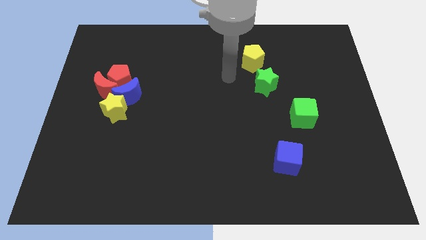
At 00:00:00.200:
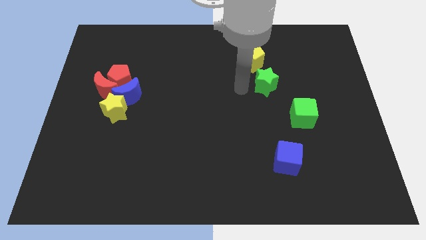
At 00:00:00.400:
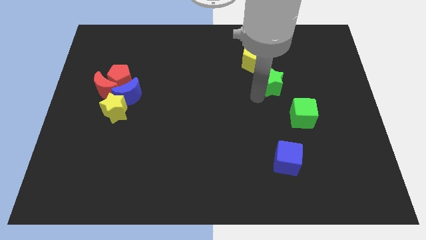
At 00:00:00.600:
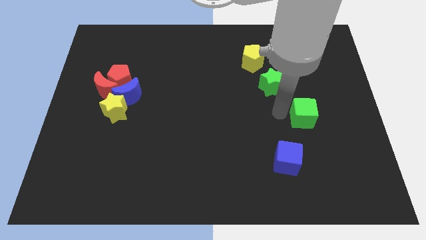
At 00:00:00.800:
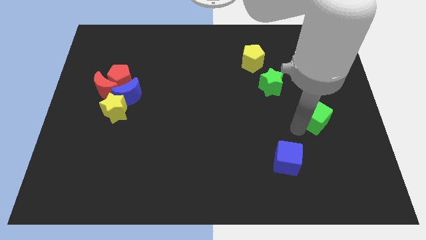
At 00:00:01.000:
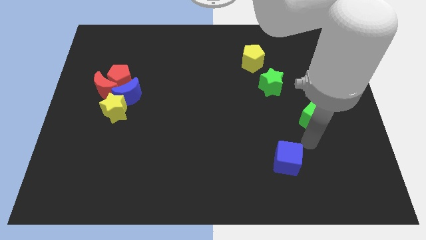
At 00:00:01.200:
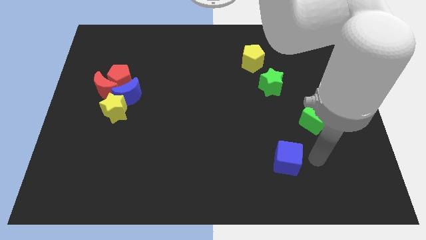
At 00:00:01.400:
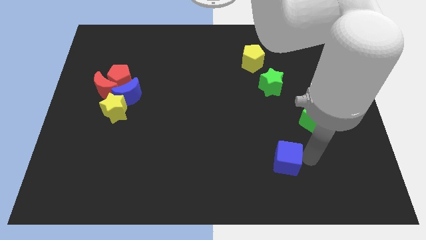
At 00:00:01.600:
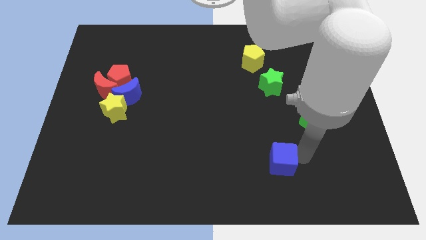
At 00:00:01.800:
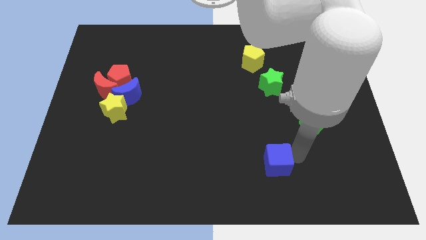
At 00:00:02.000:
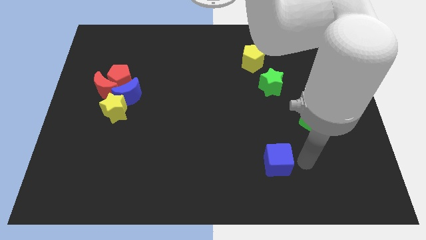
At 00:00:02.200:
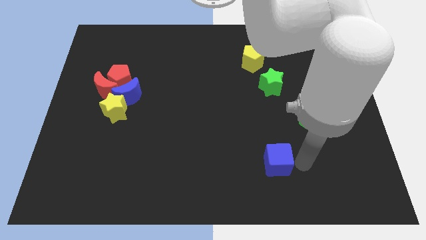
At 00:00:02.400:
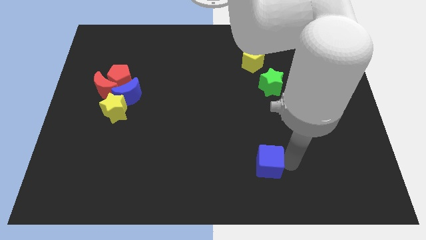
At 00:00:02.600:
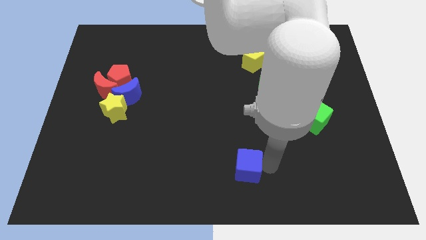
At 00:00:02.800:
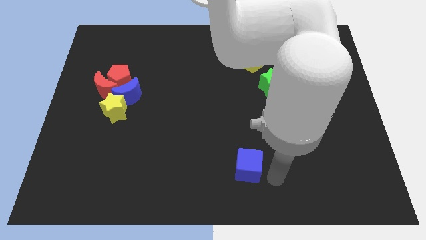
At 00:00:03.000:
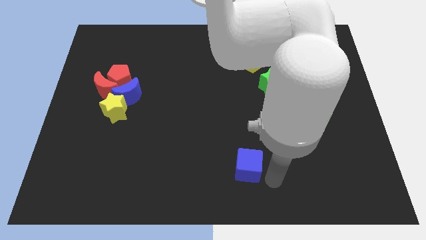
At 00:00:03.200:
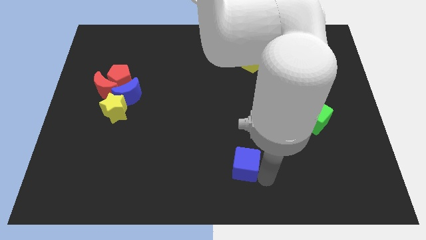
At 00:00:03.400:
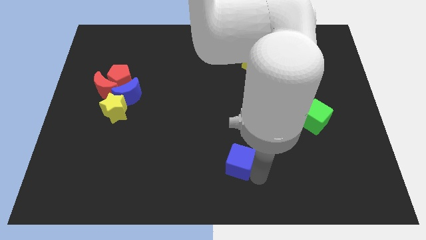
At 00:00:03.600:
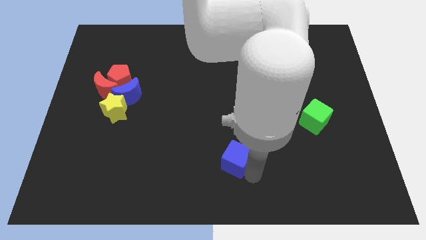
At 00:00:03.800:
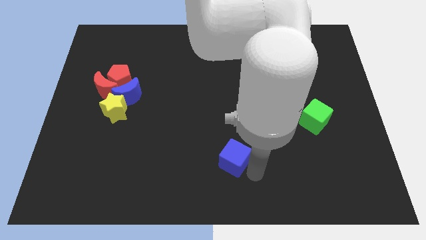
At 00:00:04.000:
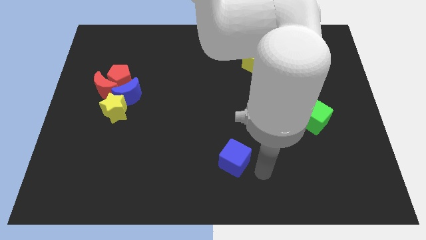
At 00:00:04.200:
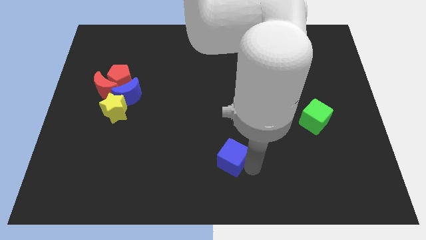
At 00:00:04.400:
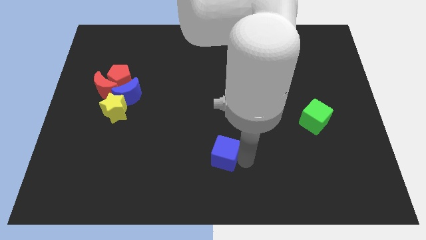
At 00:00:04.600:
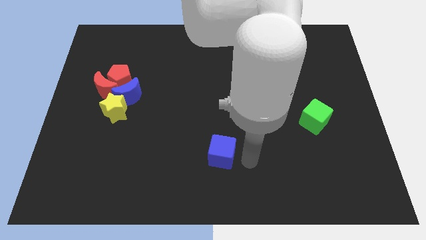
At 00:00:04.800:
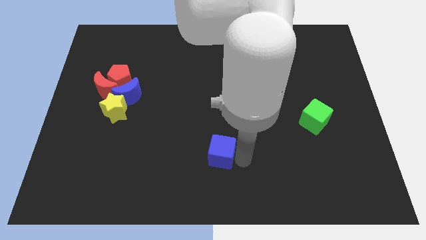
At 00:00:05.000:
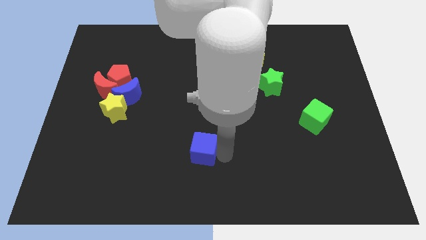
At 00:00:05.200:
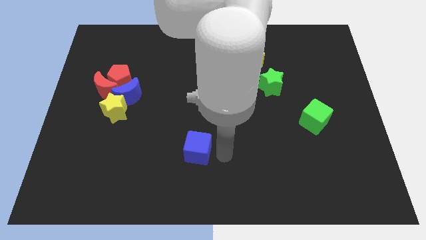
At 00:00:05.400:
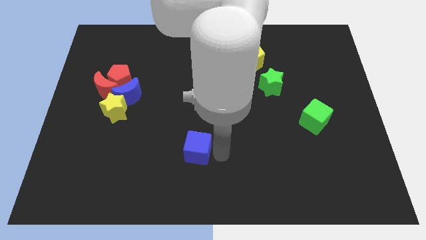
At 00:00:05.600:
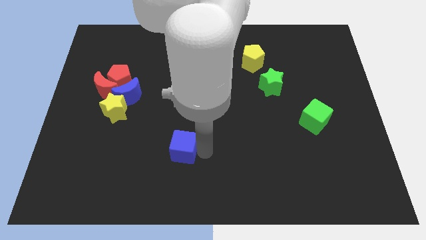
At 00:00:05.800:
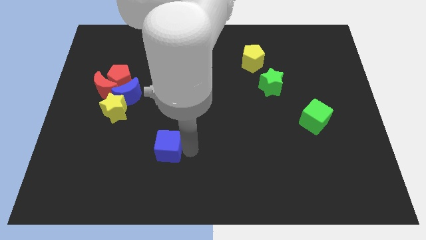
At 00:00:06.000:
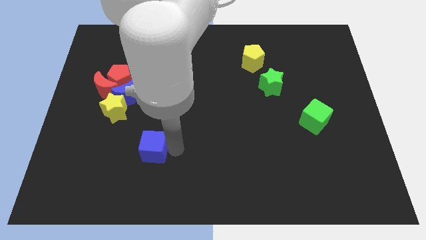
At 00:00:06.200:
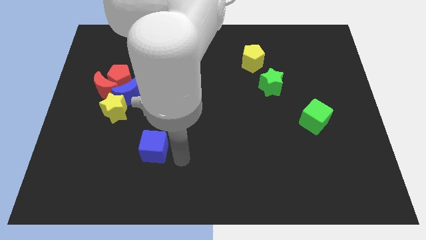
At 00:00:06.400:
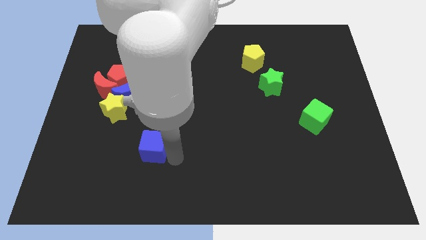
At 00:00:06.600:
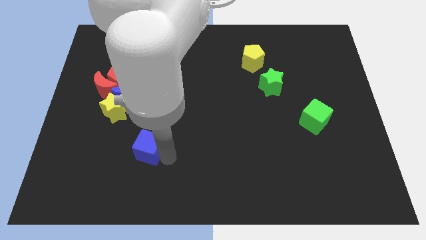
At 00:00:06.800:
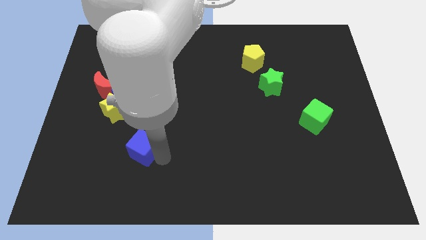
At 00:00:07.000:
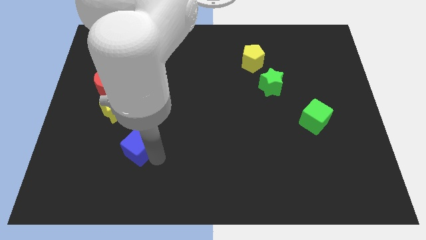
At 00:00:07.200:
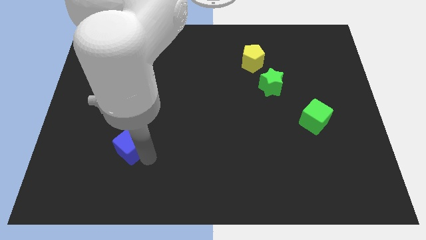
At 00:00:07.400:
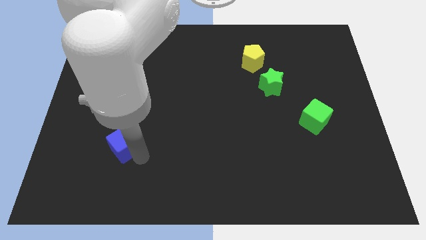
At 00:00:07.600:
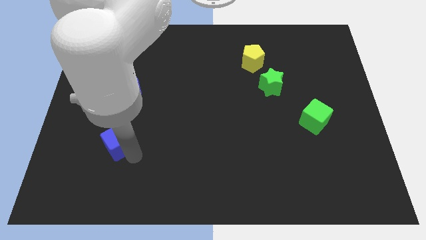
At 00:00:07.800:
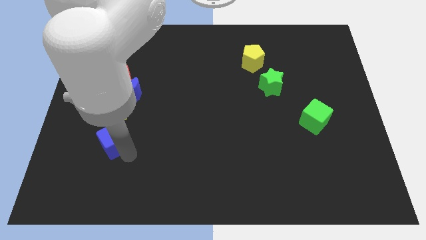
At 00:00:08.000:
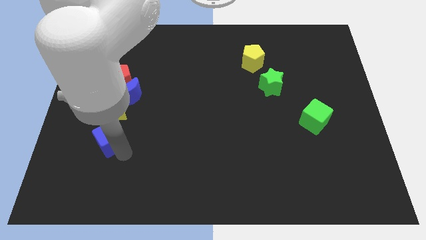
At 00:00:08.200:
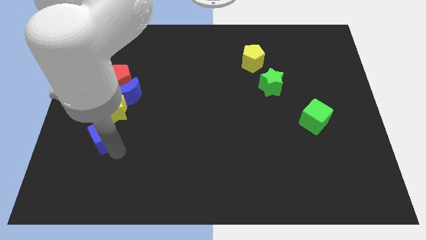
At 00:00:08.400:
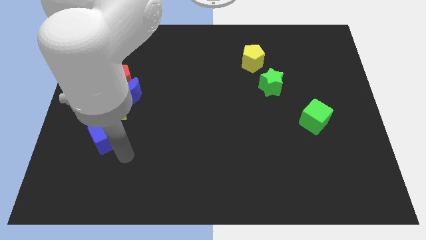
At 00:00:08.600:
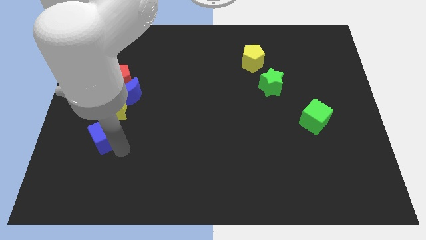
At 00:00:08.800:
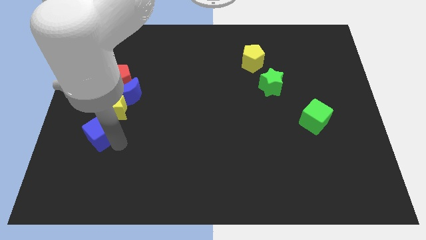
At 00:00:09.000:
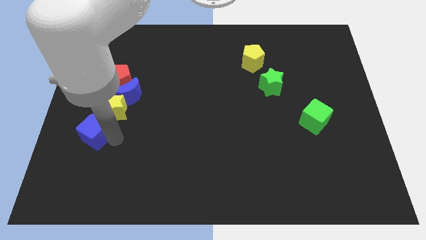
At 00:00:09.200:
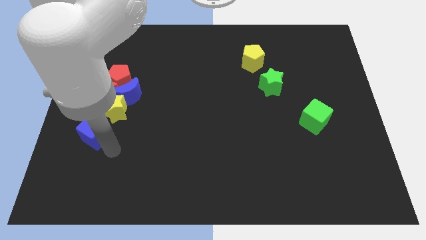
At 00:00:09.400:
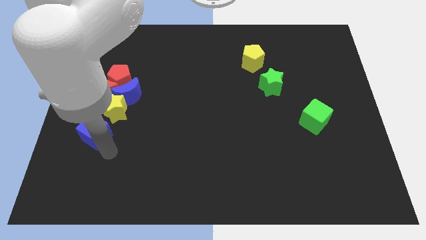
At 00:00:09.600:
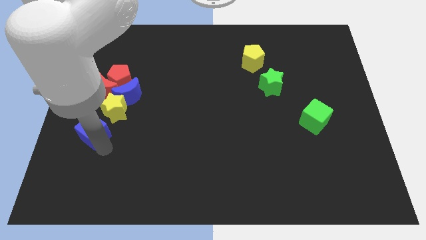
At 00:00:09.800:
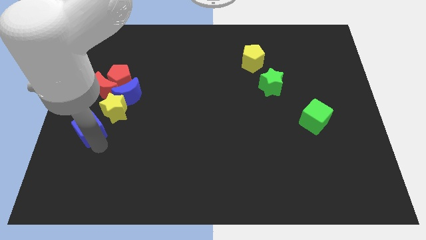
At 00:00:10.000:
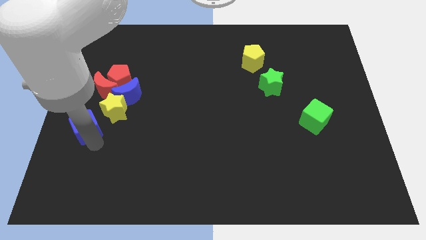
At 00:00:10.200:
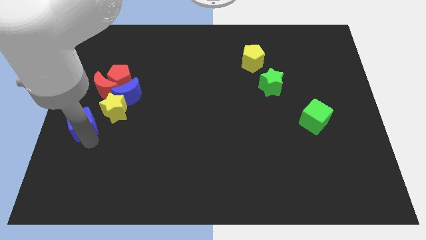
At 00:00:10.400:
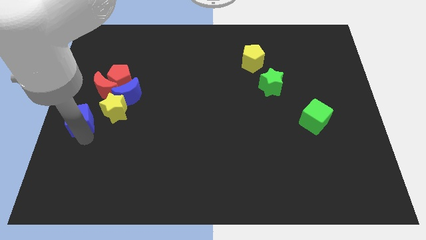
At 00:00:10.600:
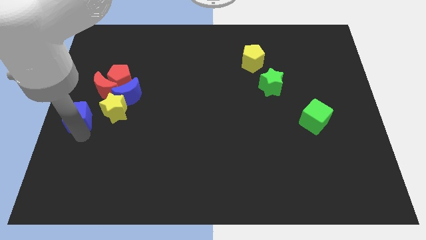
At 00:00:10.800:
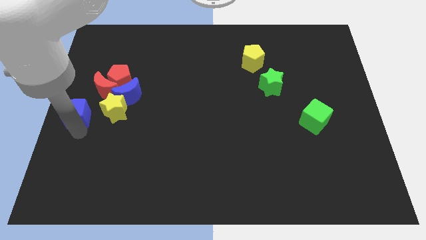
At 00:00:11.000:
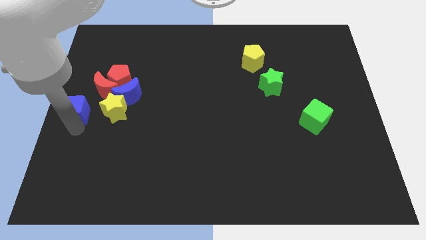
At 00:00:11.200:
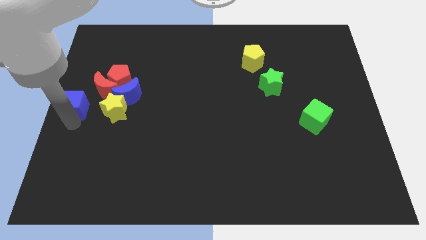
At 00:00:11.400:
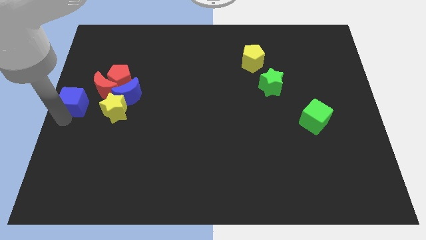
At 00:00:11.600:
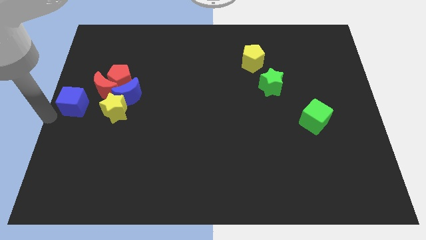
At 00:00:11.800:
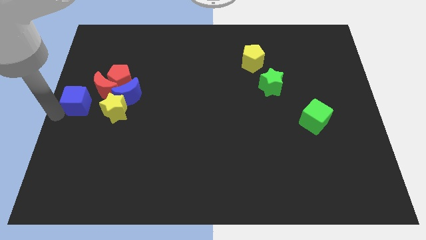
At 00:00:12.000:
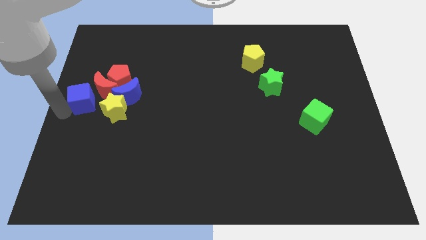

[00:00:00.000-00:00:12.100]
slide the blue cube next to the red moon

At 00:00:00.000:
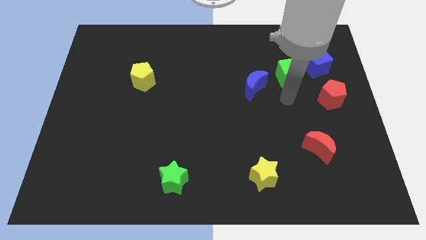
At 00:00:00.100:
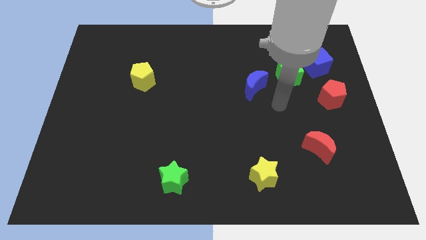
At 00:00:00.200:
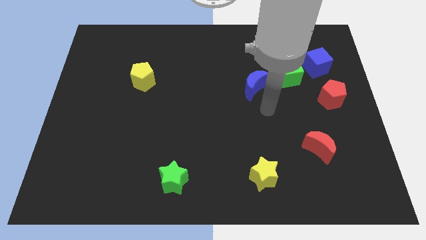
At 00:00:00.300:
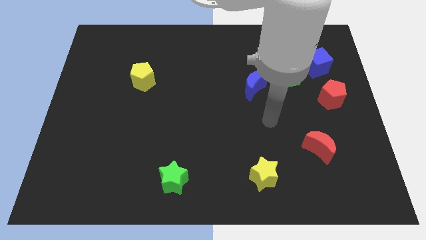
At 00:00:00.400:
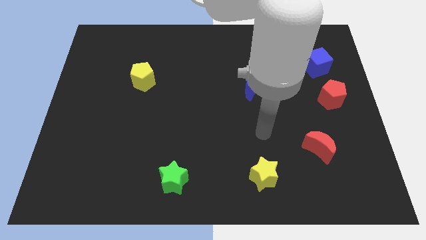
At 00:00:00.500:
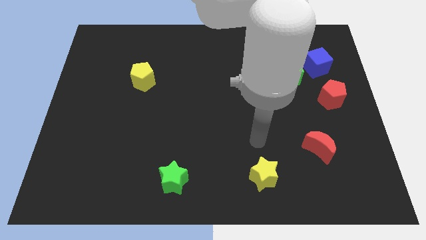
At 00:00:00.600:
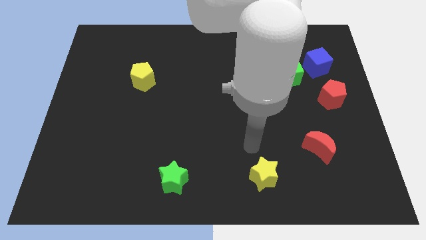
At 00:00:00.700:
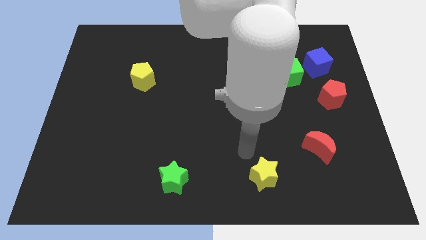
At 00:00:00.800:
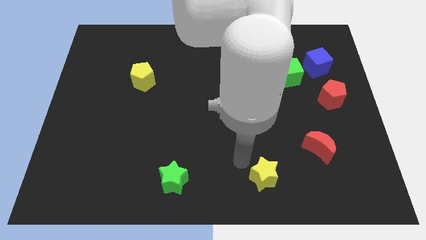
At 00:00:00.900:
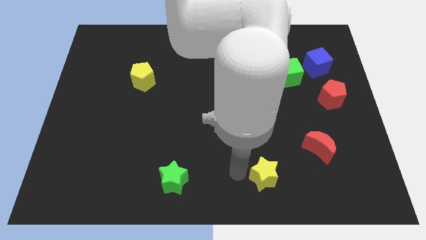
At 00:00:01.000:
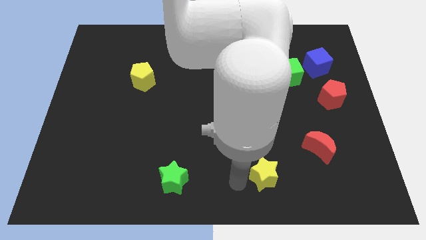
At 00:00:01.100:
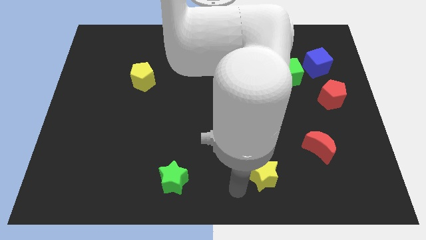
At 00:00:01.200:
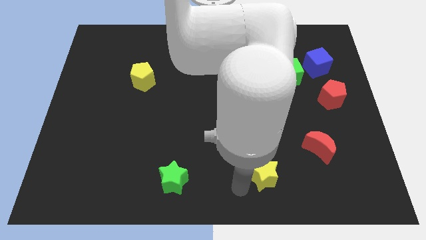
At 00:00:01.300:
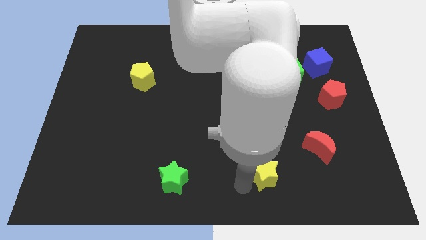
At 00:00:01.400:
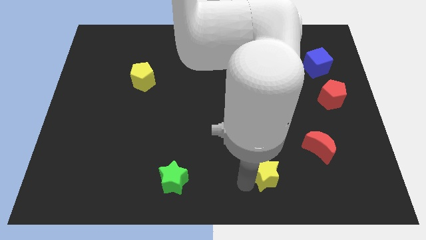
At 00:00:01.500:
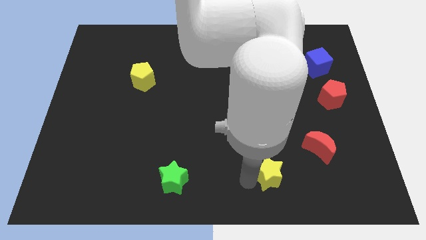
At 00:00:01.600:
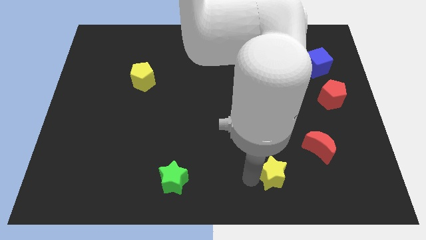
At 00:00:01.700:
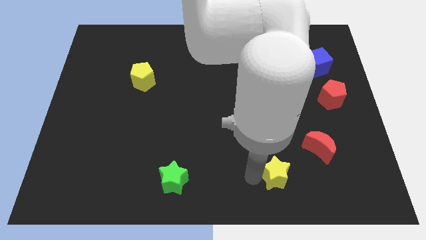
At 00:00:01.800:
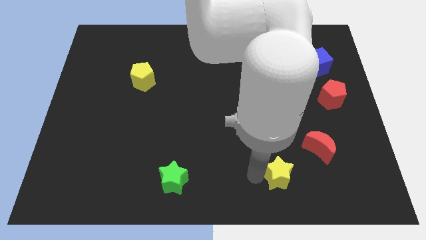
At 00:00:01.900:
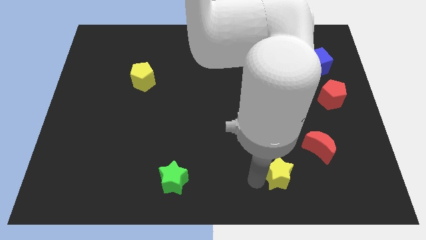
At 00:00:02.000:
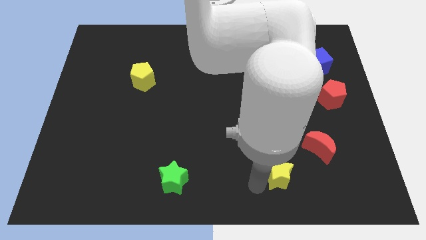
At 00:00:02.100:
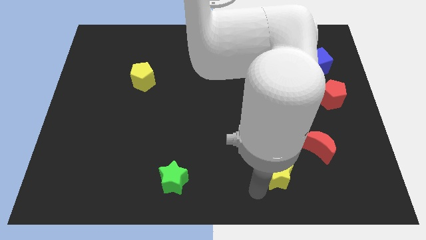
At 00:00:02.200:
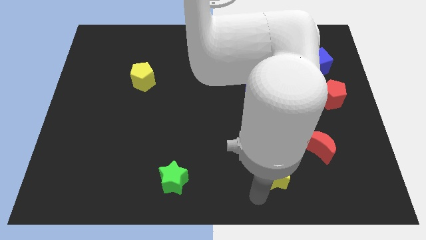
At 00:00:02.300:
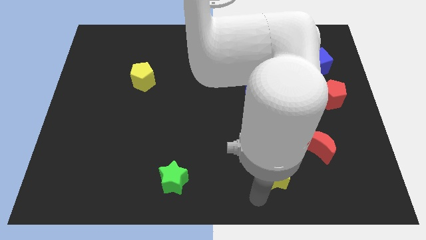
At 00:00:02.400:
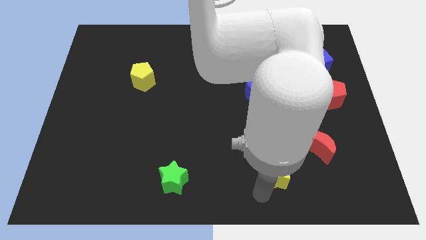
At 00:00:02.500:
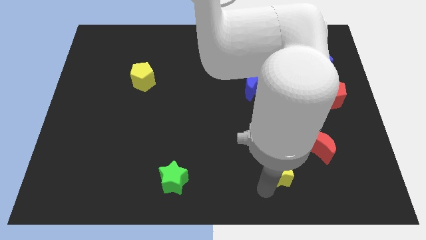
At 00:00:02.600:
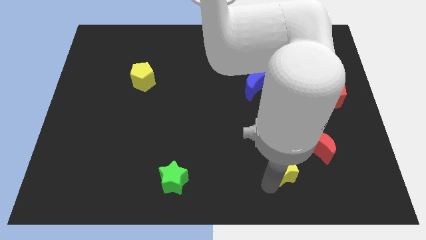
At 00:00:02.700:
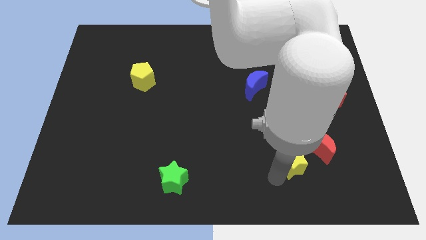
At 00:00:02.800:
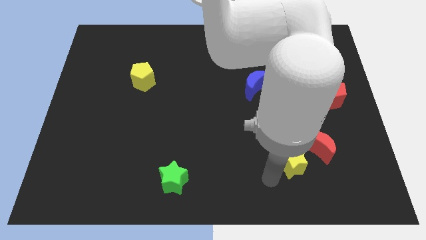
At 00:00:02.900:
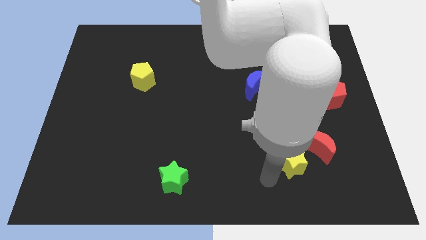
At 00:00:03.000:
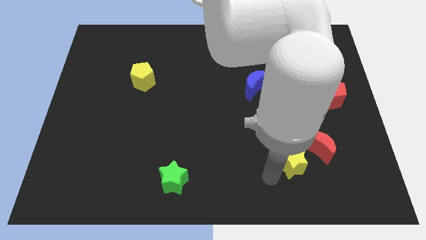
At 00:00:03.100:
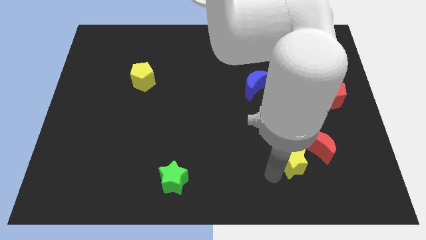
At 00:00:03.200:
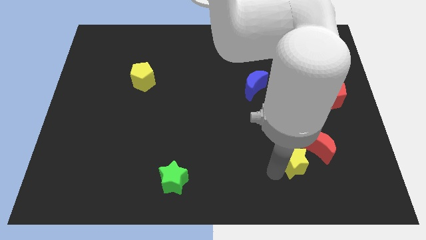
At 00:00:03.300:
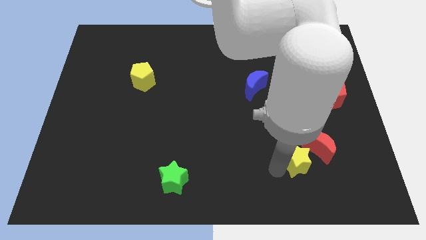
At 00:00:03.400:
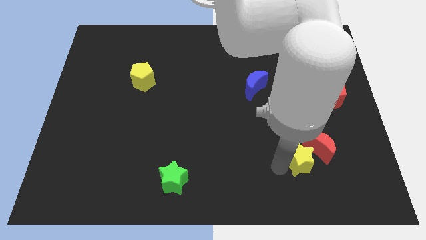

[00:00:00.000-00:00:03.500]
put the yellow star to the red moon
